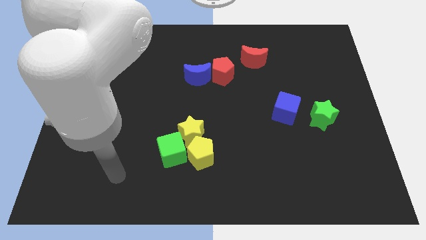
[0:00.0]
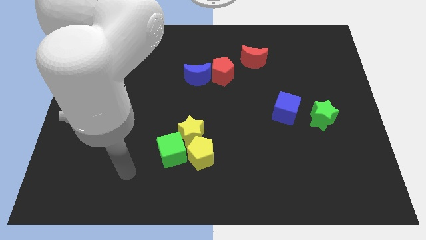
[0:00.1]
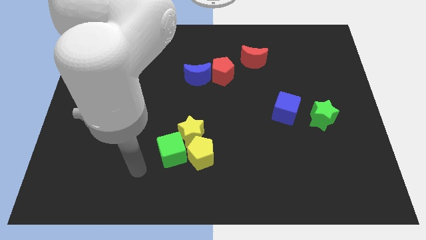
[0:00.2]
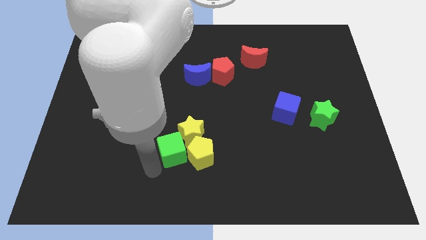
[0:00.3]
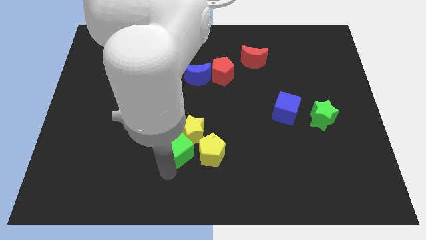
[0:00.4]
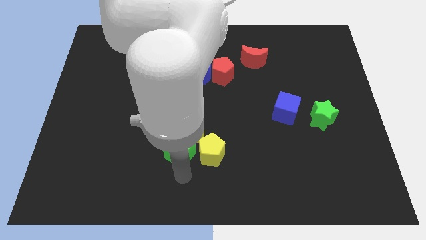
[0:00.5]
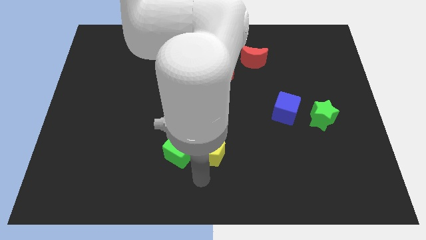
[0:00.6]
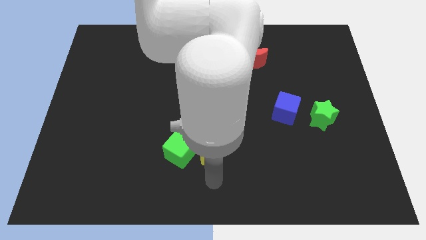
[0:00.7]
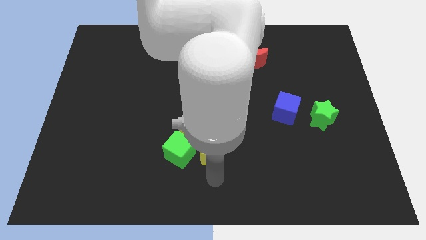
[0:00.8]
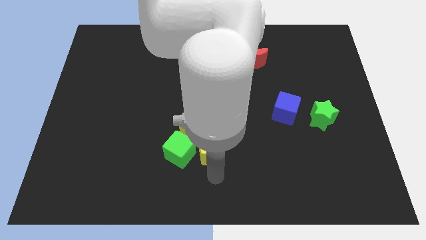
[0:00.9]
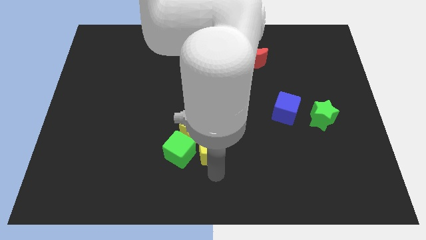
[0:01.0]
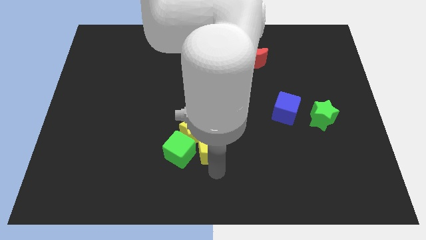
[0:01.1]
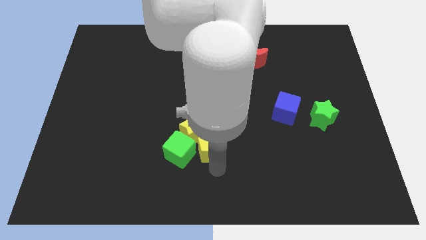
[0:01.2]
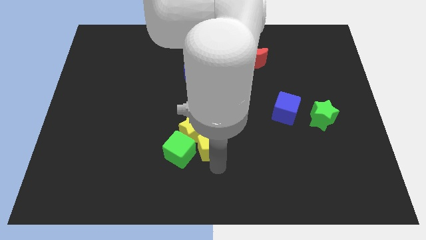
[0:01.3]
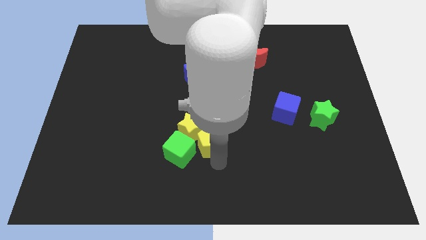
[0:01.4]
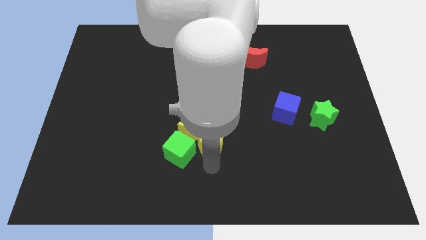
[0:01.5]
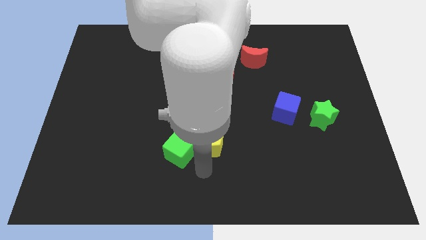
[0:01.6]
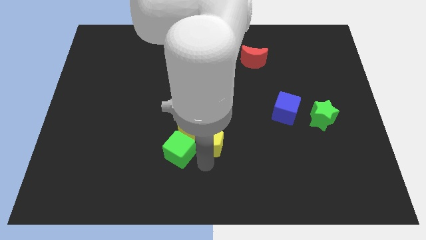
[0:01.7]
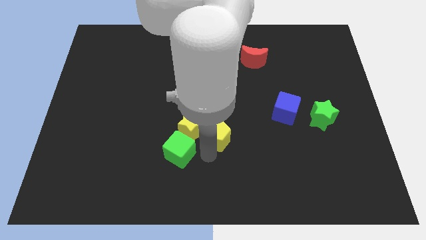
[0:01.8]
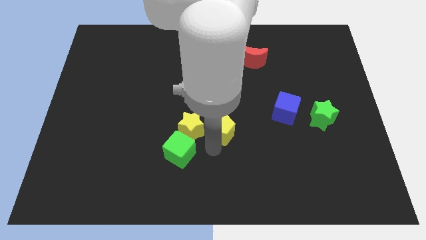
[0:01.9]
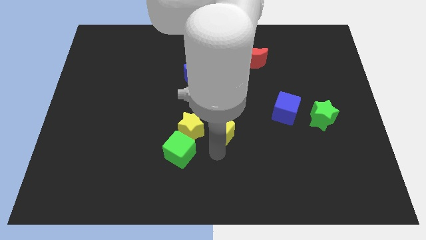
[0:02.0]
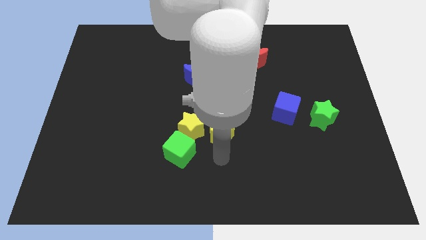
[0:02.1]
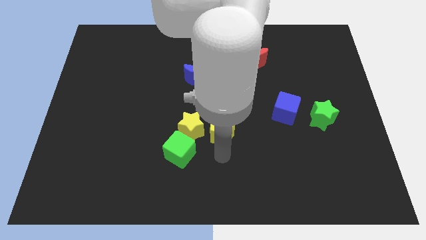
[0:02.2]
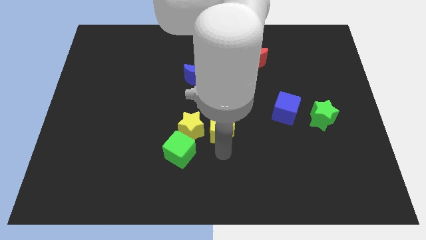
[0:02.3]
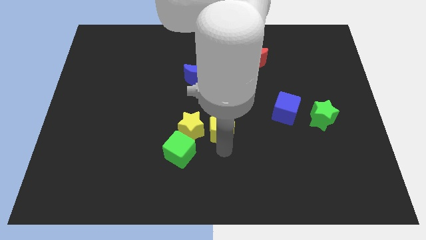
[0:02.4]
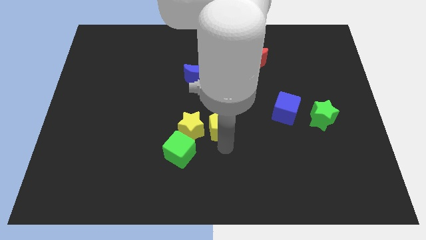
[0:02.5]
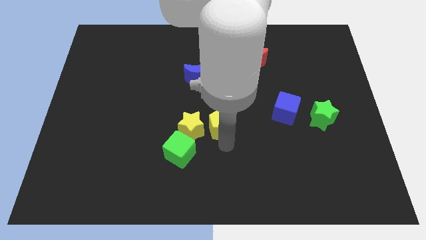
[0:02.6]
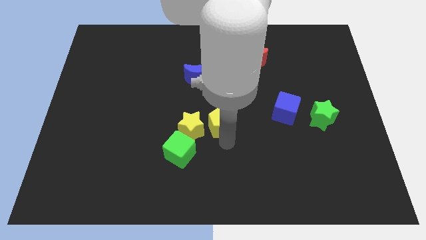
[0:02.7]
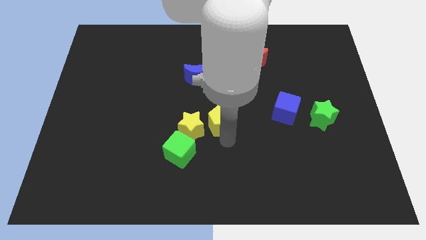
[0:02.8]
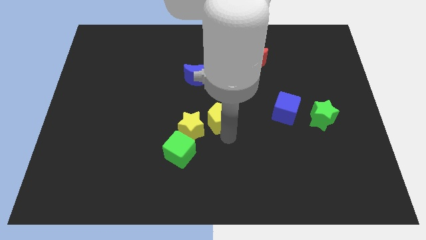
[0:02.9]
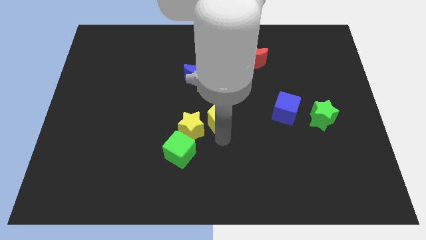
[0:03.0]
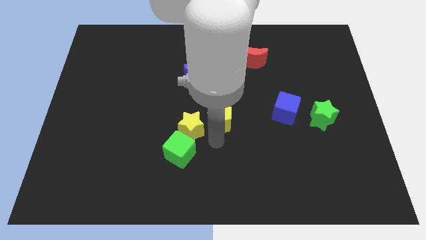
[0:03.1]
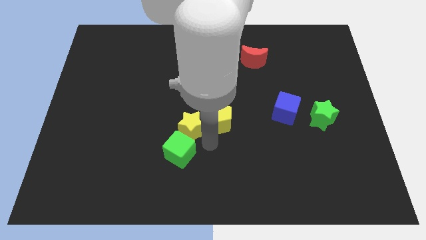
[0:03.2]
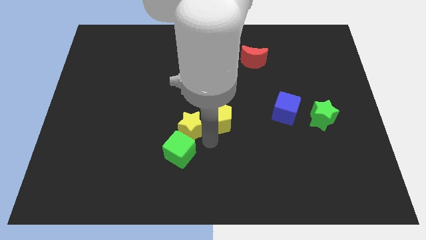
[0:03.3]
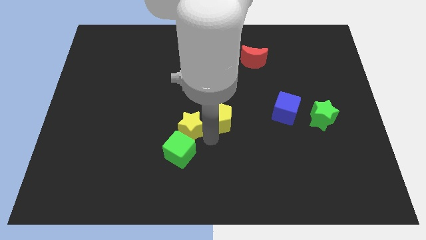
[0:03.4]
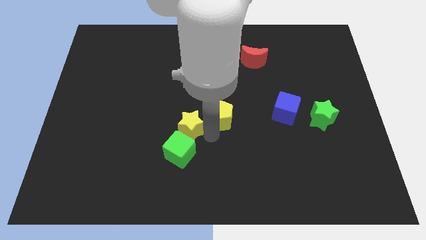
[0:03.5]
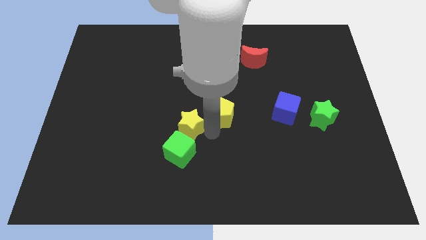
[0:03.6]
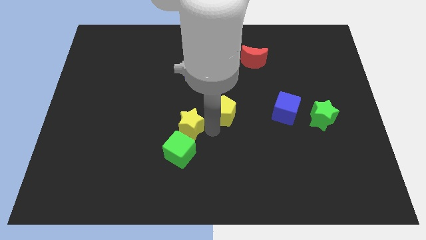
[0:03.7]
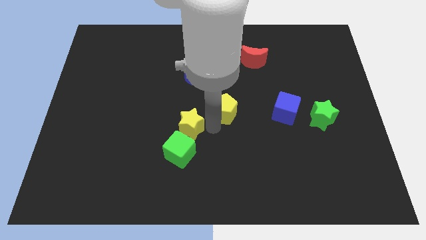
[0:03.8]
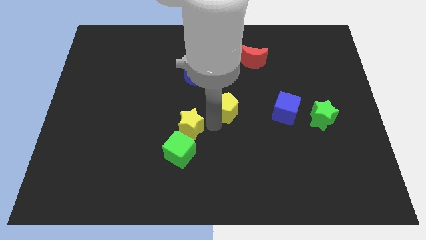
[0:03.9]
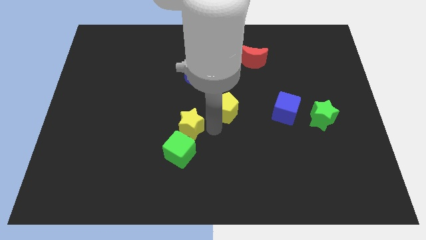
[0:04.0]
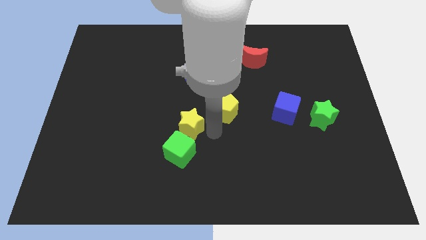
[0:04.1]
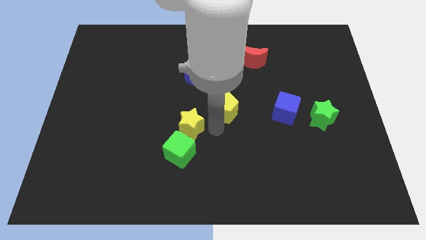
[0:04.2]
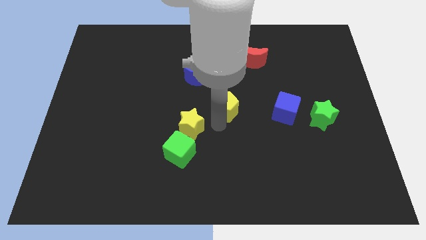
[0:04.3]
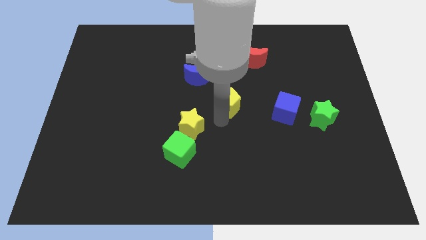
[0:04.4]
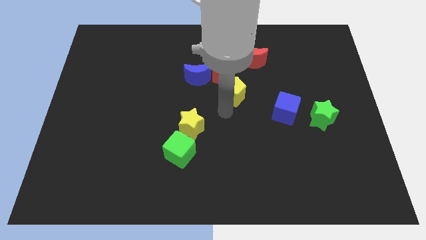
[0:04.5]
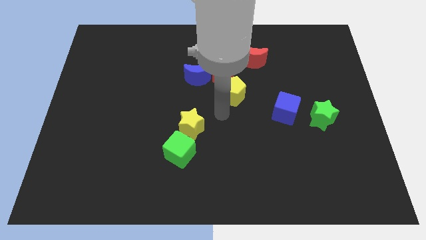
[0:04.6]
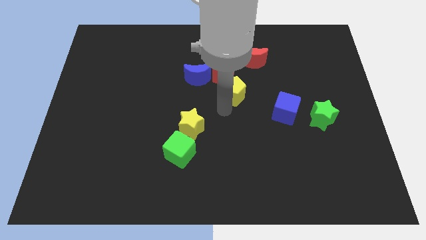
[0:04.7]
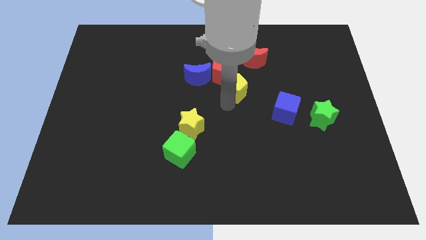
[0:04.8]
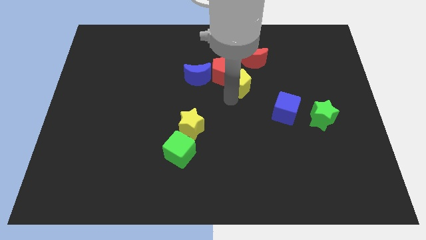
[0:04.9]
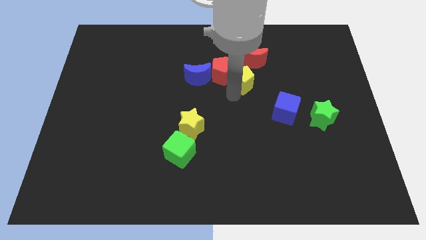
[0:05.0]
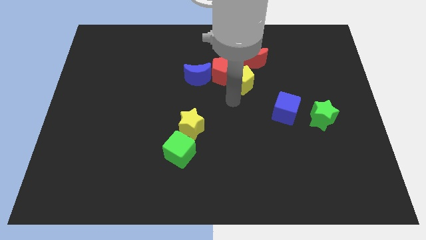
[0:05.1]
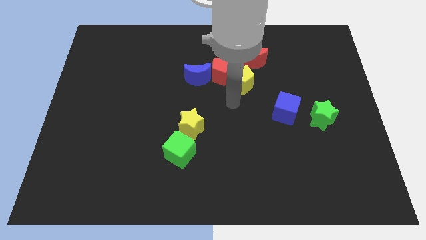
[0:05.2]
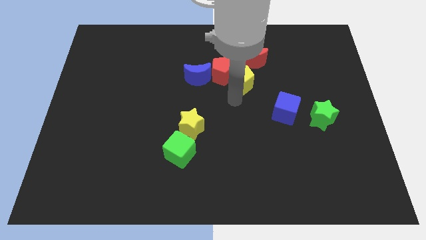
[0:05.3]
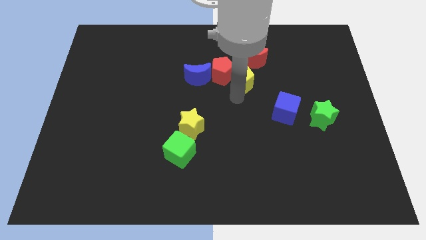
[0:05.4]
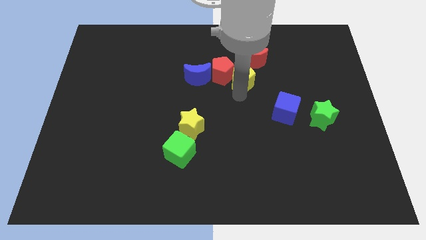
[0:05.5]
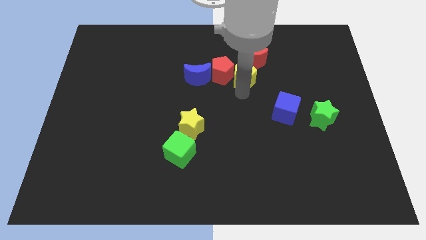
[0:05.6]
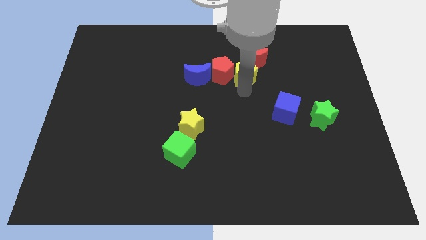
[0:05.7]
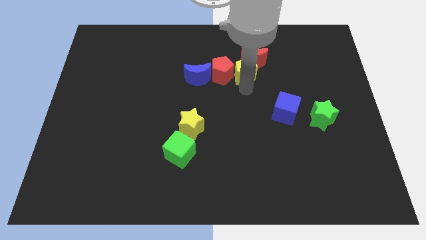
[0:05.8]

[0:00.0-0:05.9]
put the yellow pentagon to the red moon
